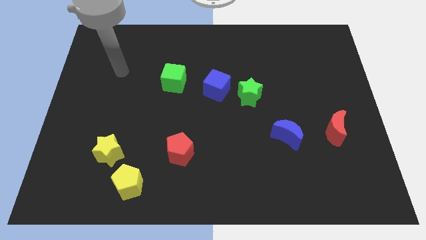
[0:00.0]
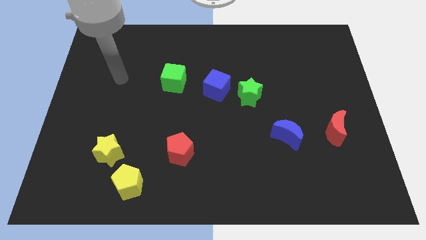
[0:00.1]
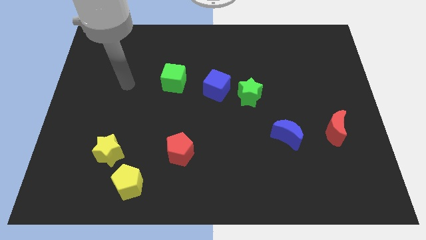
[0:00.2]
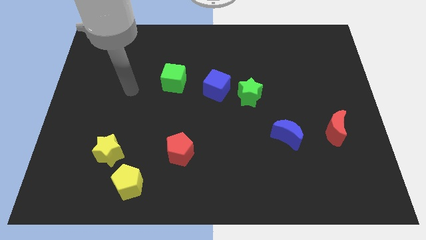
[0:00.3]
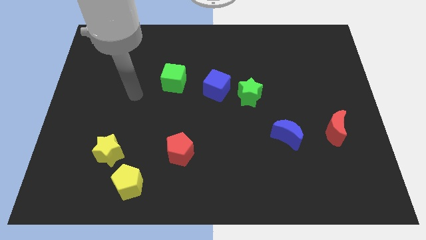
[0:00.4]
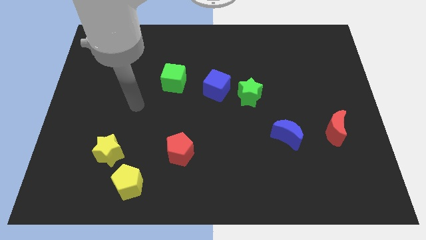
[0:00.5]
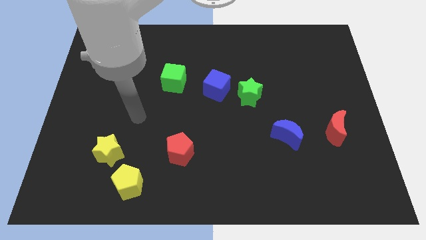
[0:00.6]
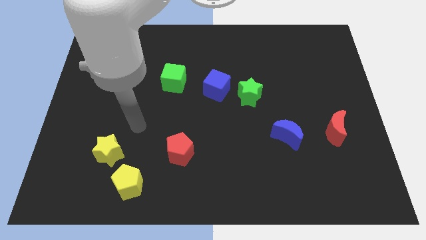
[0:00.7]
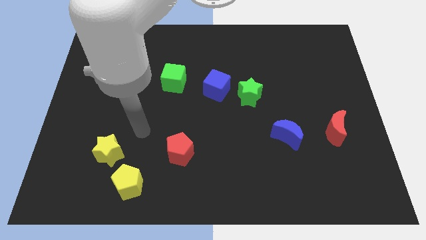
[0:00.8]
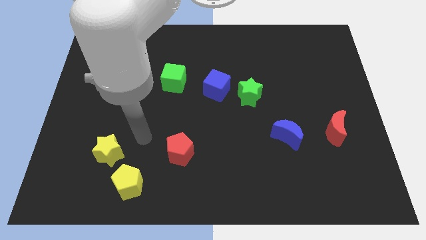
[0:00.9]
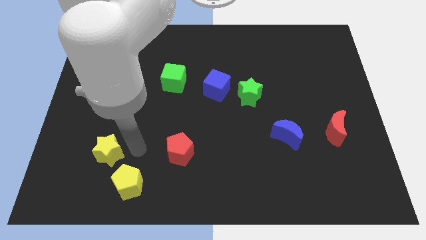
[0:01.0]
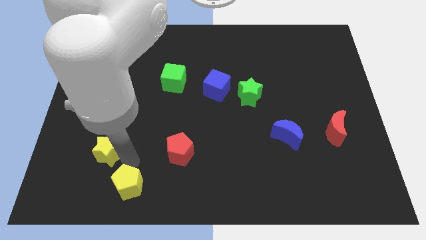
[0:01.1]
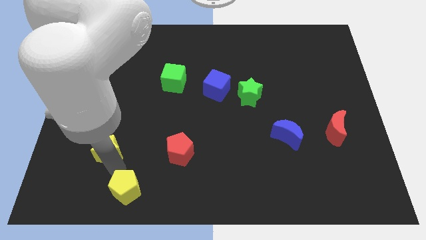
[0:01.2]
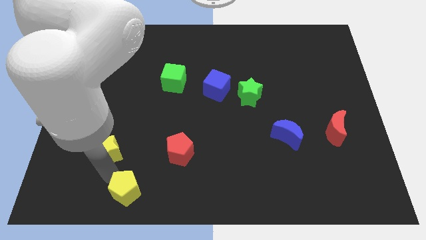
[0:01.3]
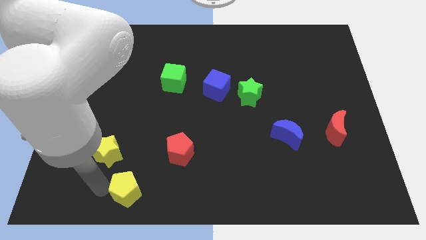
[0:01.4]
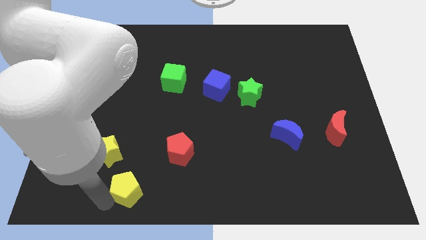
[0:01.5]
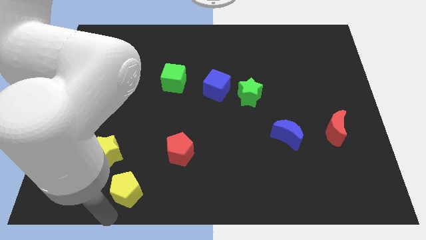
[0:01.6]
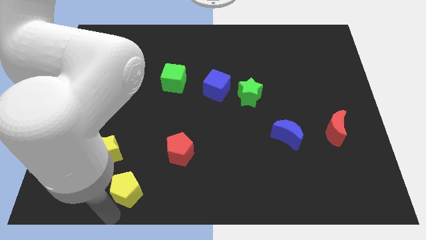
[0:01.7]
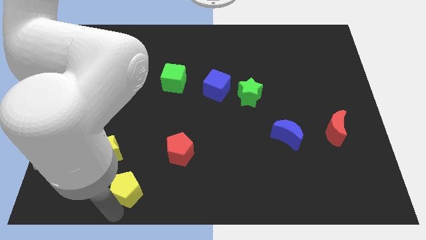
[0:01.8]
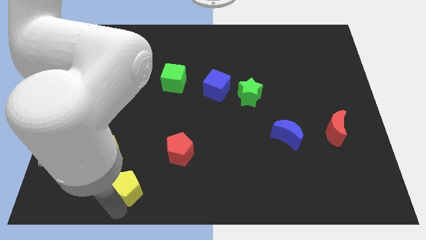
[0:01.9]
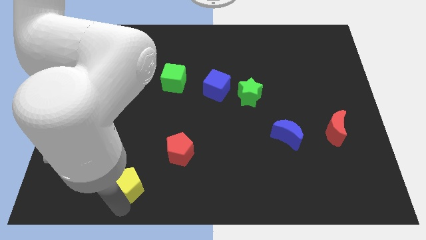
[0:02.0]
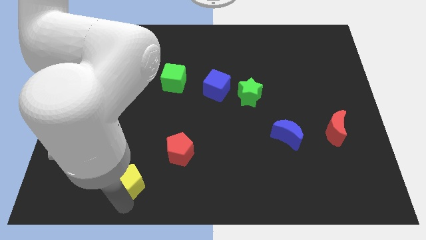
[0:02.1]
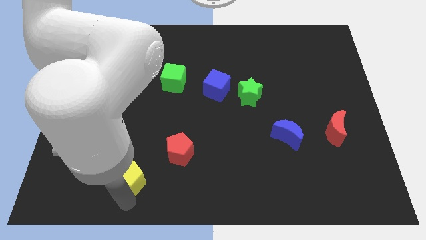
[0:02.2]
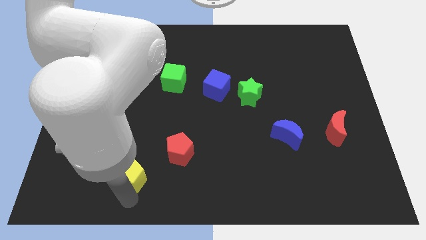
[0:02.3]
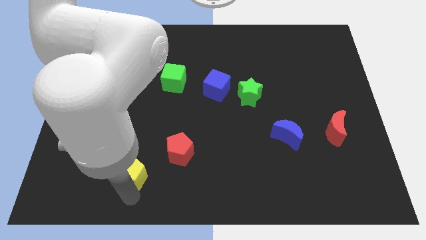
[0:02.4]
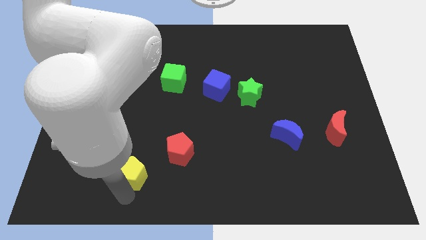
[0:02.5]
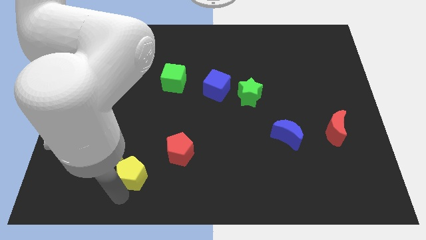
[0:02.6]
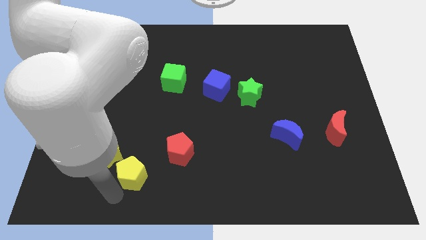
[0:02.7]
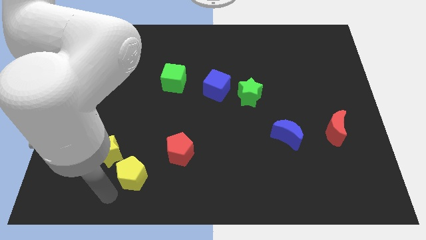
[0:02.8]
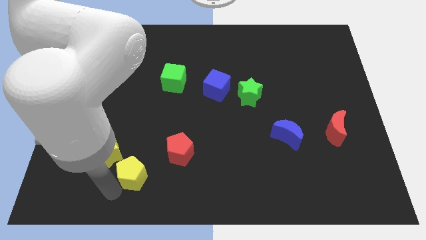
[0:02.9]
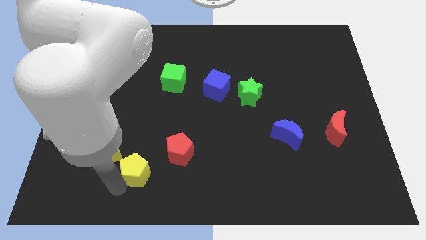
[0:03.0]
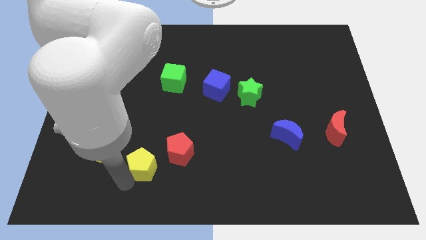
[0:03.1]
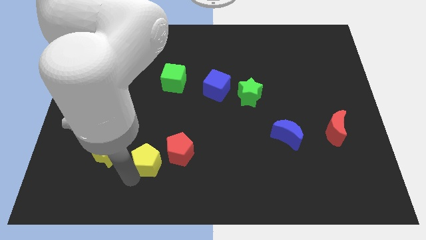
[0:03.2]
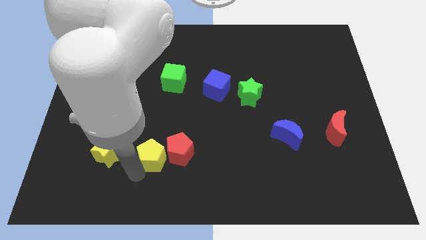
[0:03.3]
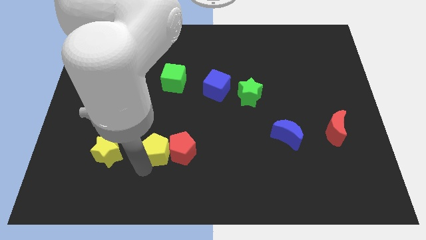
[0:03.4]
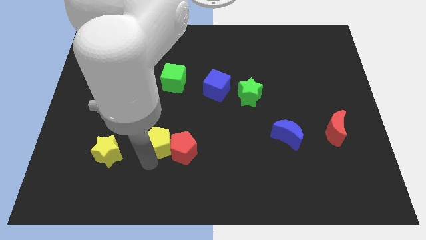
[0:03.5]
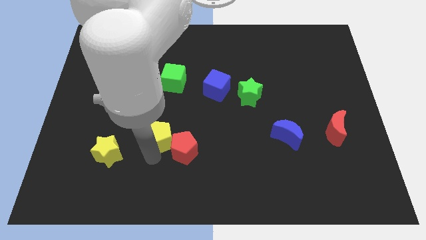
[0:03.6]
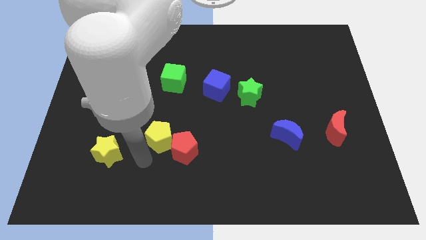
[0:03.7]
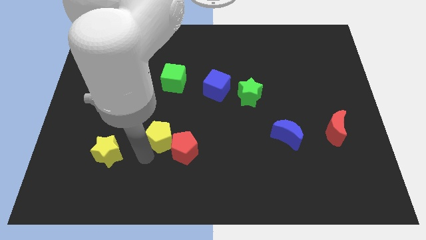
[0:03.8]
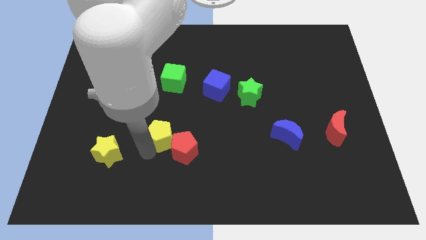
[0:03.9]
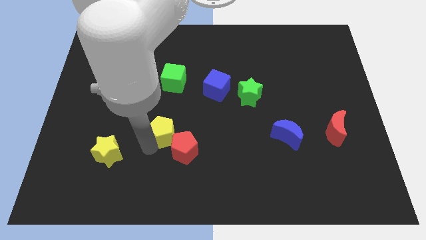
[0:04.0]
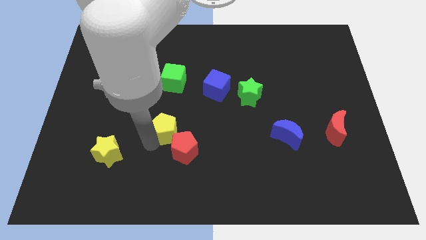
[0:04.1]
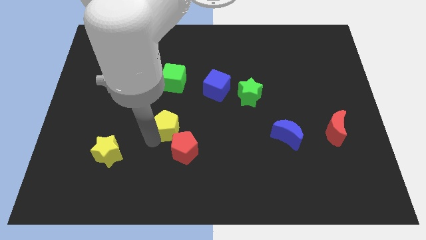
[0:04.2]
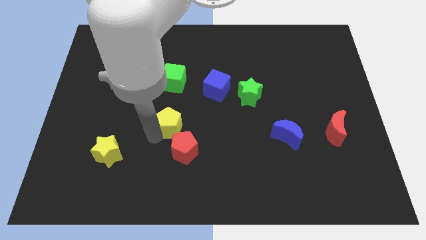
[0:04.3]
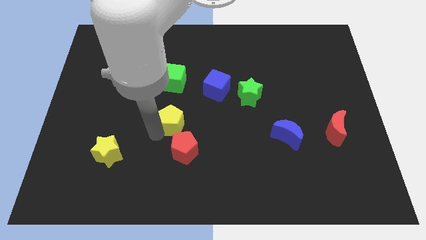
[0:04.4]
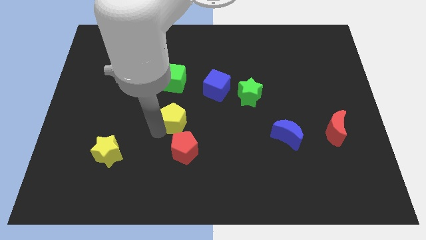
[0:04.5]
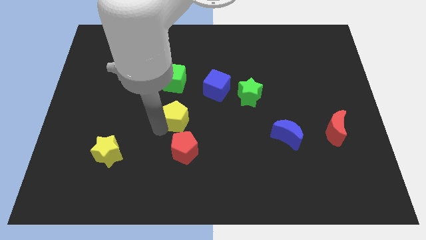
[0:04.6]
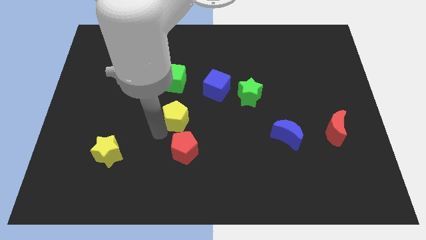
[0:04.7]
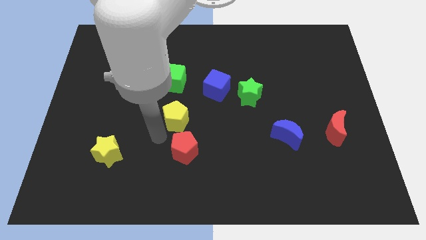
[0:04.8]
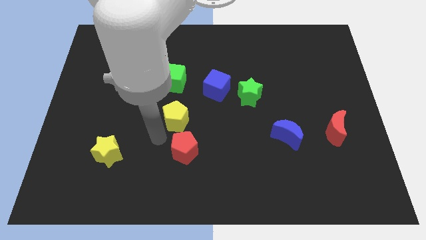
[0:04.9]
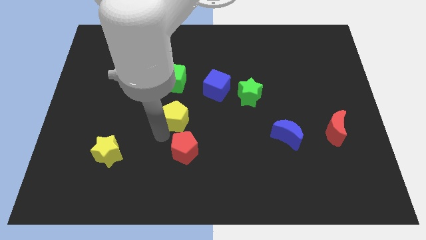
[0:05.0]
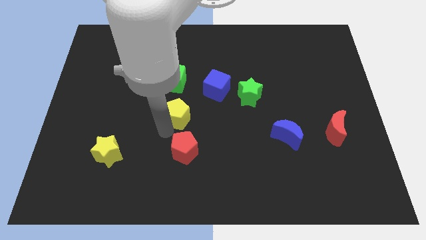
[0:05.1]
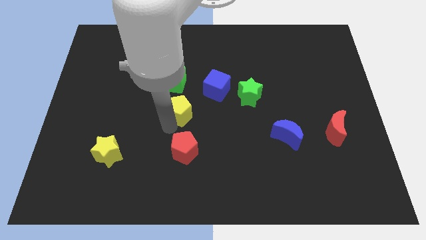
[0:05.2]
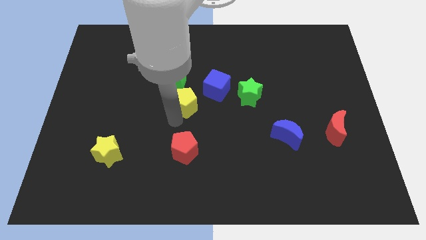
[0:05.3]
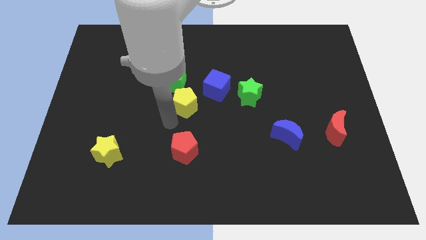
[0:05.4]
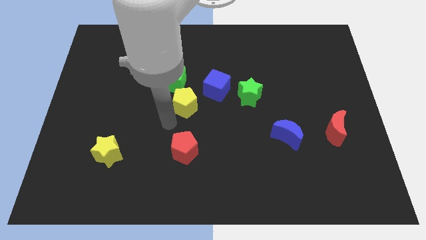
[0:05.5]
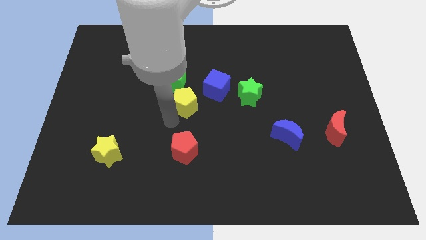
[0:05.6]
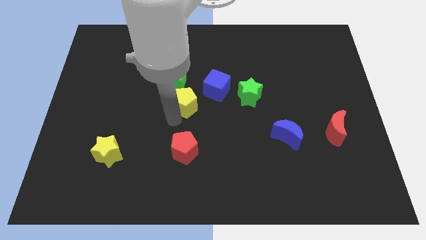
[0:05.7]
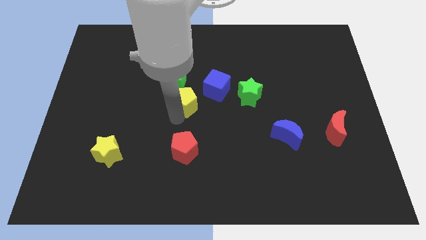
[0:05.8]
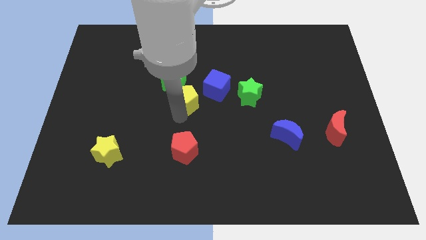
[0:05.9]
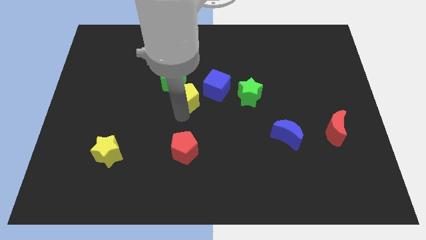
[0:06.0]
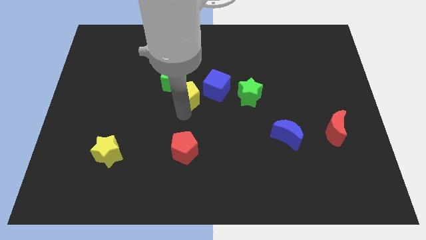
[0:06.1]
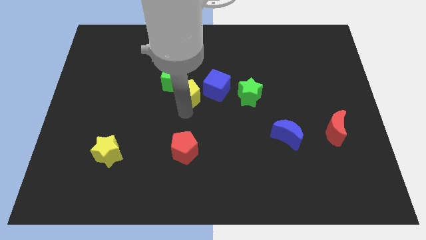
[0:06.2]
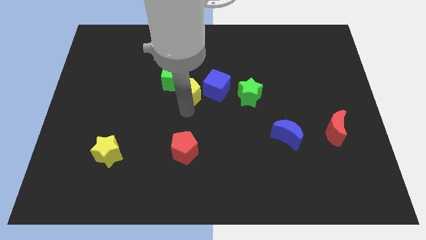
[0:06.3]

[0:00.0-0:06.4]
put the yellow pentagon right of the green cube

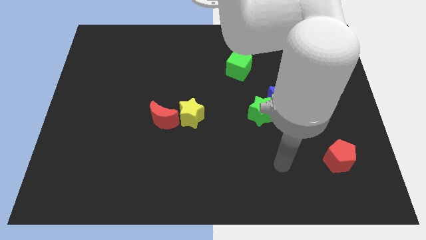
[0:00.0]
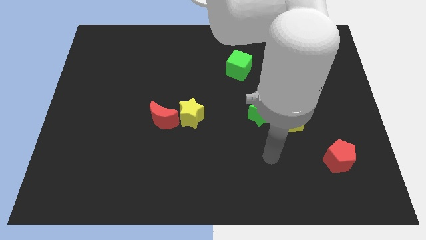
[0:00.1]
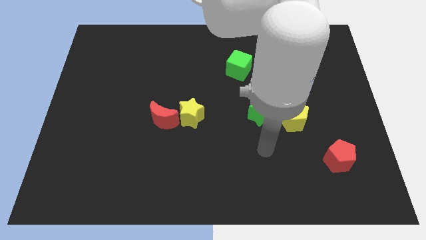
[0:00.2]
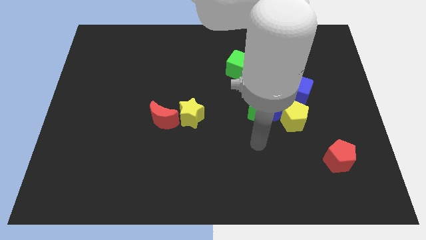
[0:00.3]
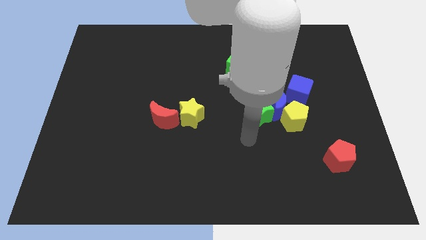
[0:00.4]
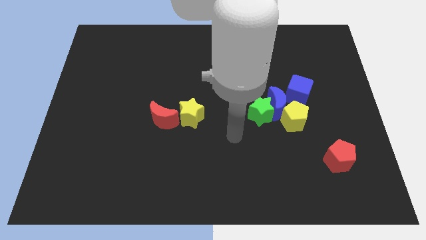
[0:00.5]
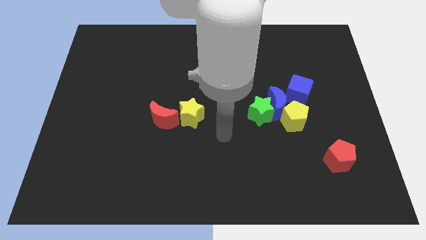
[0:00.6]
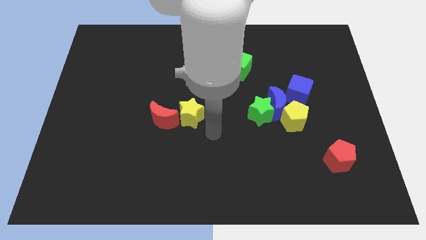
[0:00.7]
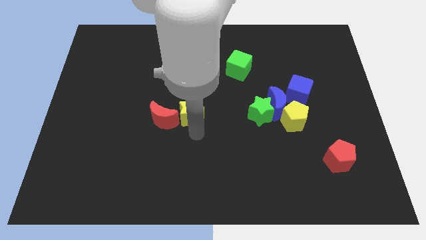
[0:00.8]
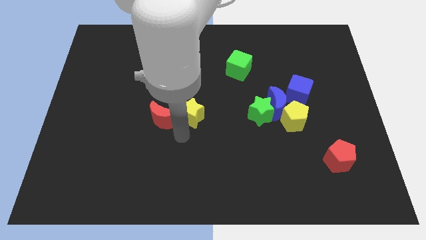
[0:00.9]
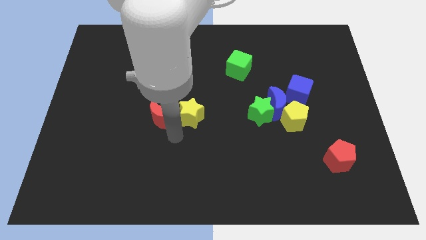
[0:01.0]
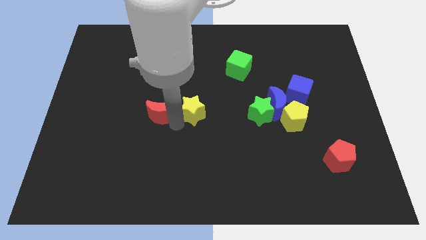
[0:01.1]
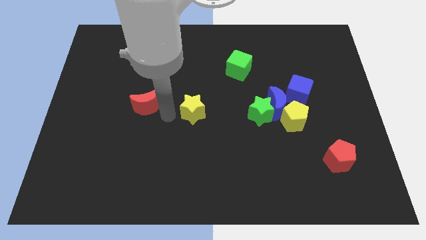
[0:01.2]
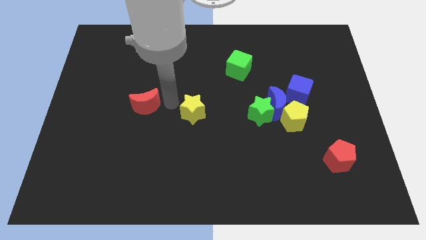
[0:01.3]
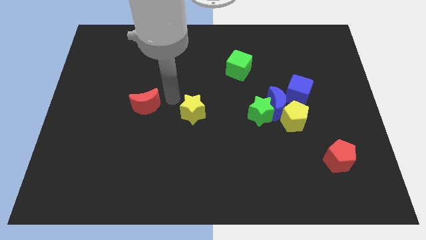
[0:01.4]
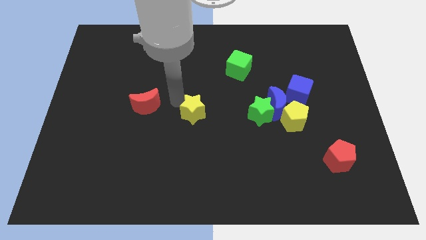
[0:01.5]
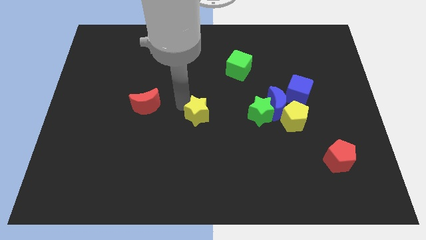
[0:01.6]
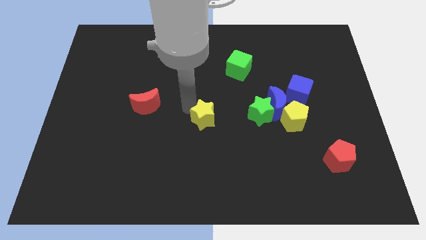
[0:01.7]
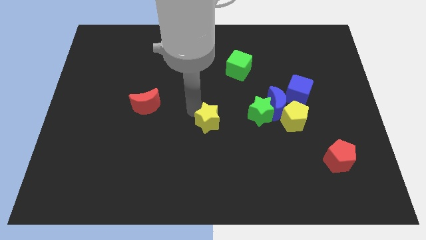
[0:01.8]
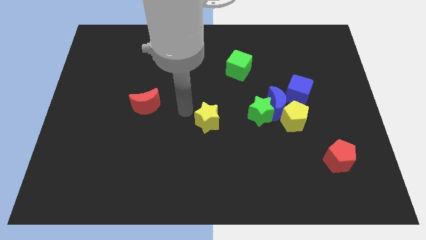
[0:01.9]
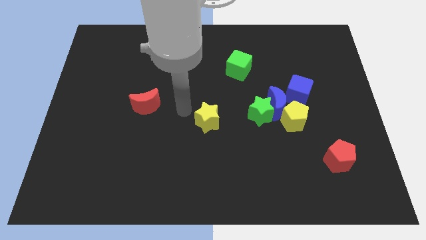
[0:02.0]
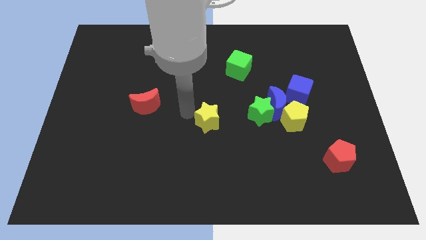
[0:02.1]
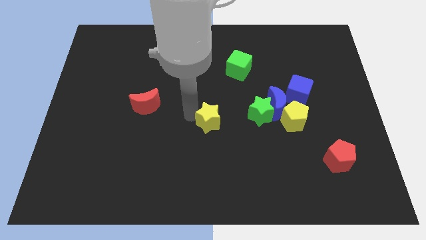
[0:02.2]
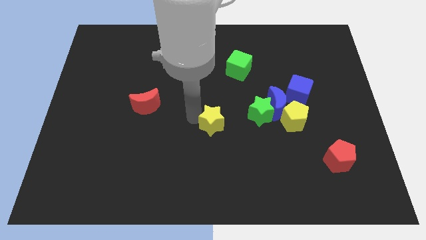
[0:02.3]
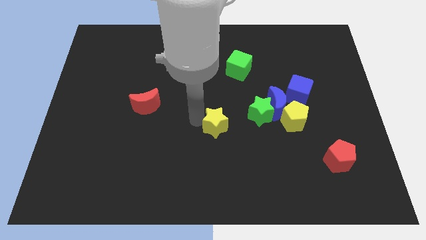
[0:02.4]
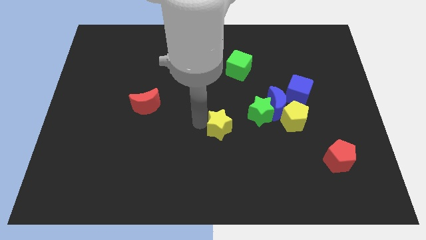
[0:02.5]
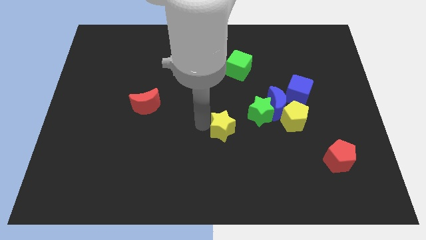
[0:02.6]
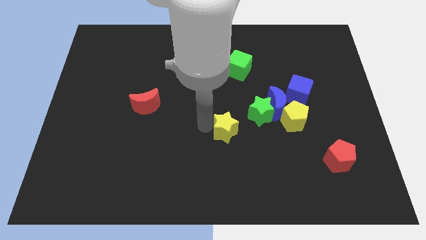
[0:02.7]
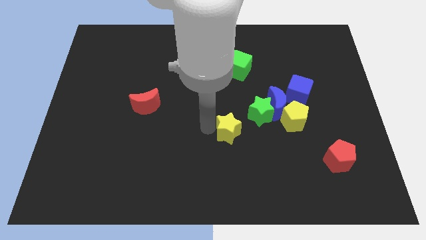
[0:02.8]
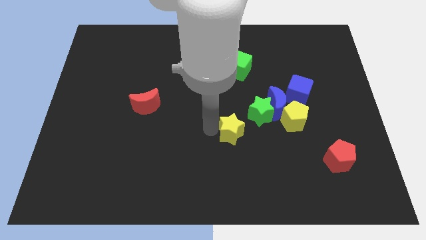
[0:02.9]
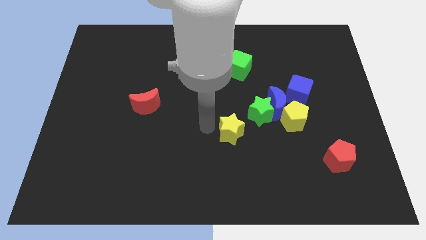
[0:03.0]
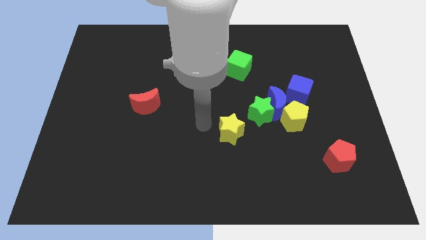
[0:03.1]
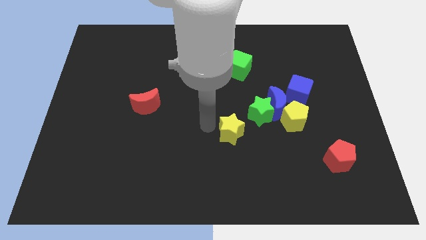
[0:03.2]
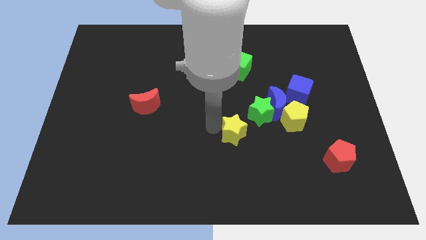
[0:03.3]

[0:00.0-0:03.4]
slide the yellow star diagonally down and to the left of the blue moon
